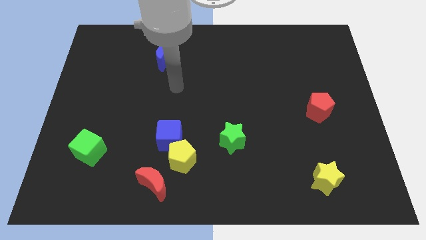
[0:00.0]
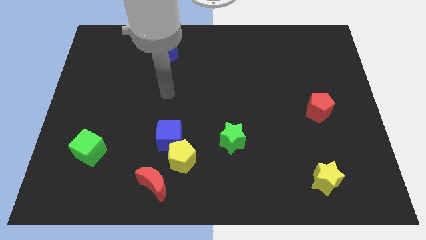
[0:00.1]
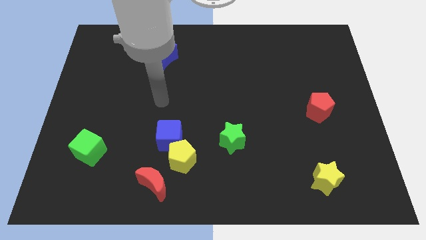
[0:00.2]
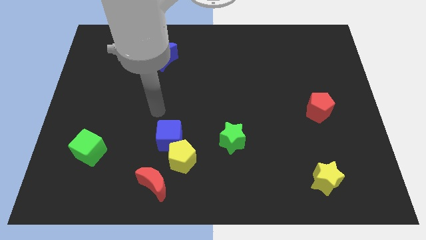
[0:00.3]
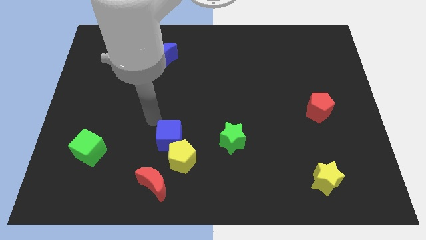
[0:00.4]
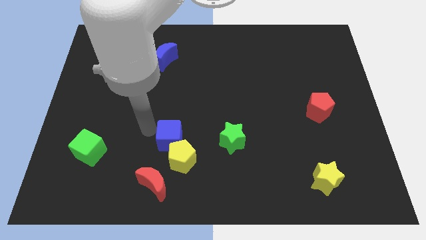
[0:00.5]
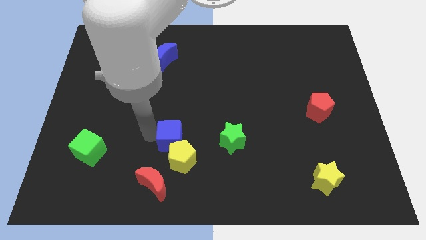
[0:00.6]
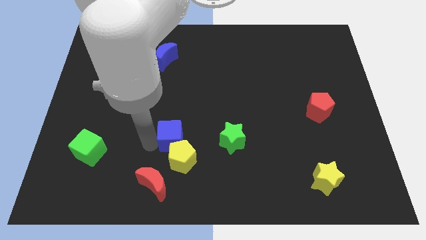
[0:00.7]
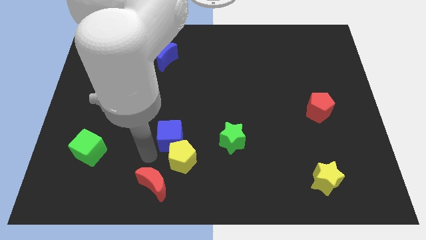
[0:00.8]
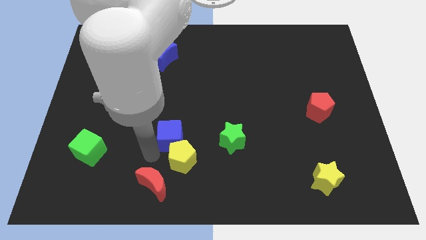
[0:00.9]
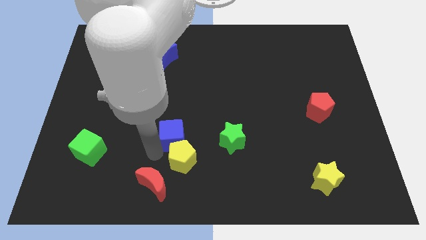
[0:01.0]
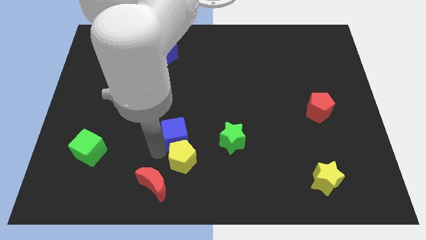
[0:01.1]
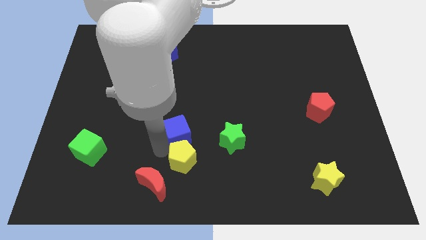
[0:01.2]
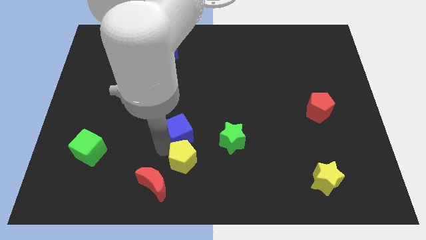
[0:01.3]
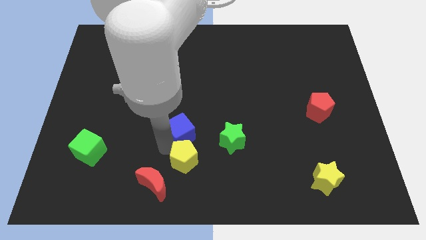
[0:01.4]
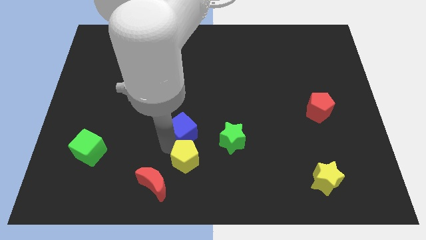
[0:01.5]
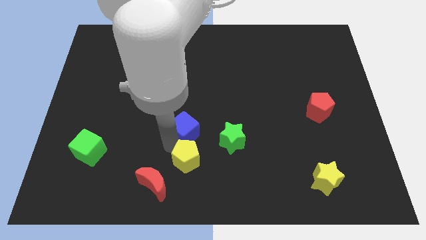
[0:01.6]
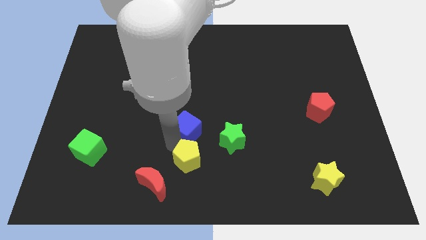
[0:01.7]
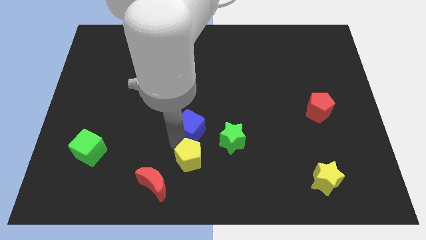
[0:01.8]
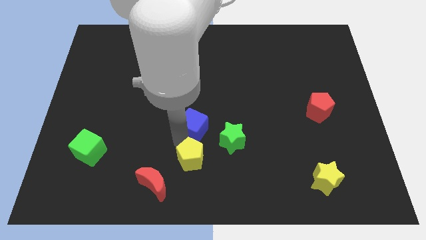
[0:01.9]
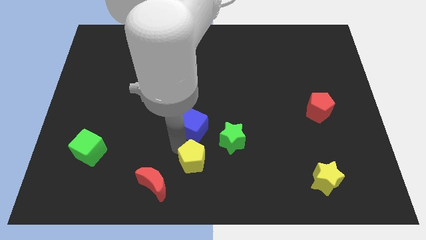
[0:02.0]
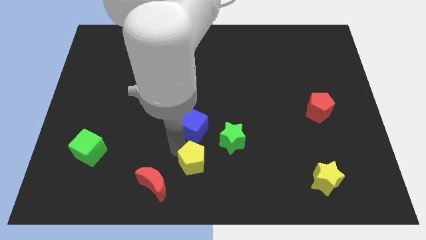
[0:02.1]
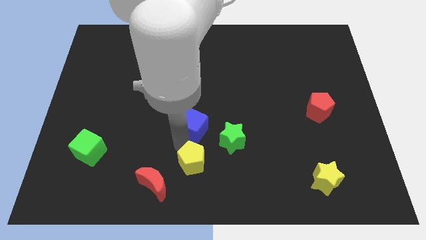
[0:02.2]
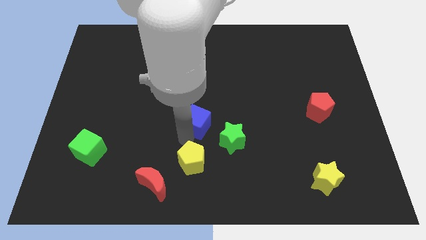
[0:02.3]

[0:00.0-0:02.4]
push the blue cube upwards and then to the right slightly

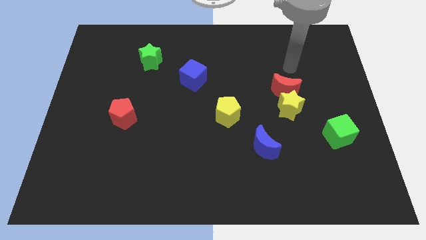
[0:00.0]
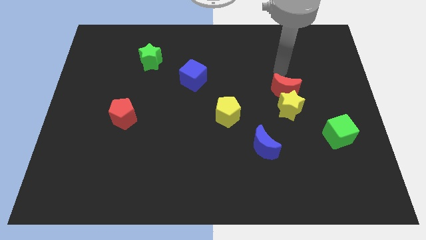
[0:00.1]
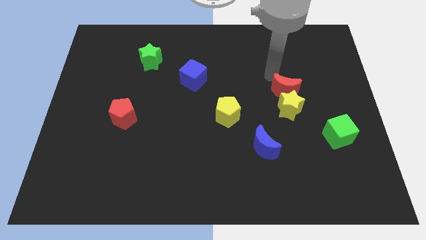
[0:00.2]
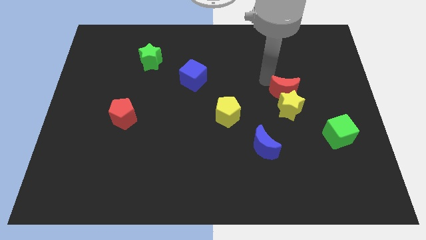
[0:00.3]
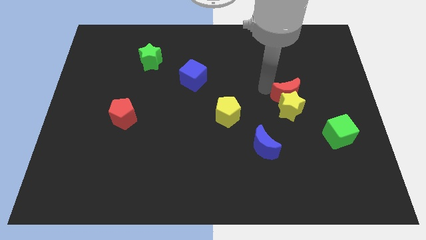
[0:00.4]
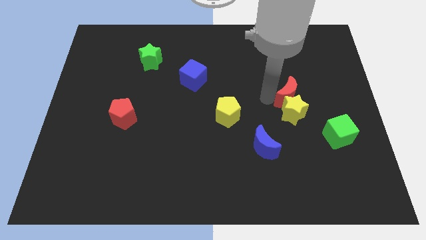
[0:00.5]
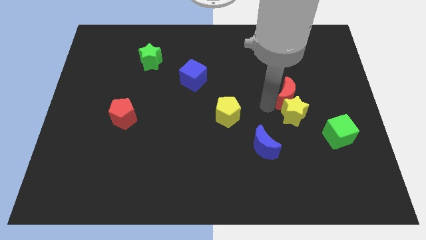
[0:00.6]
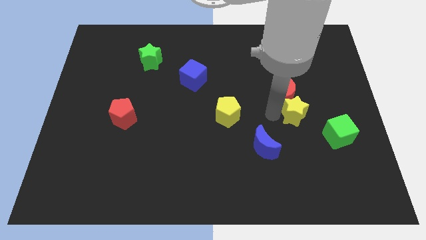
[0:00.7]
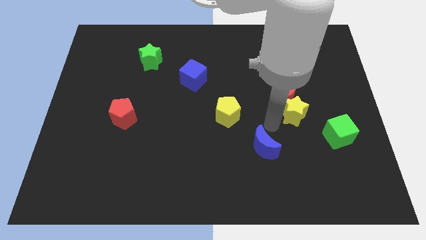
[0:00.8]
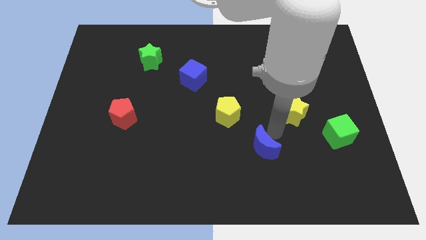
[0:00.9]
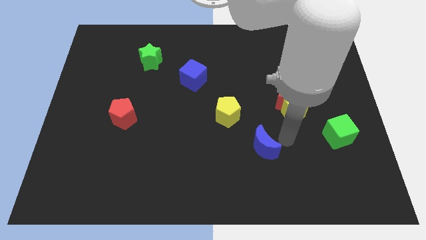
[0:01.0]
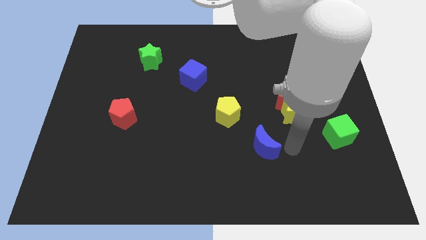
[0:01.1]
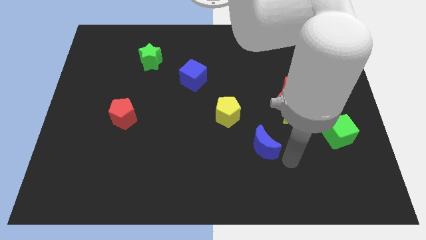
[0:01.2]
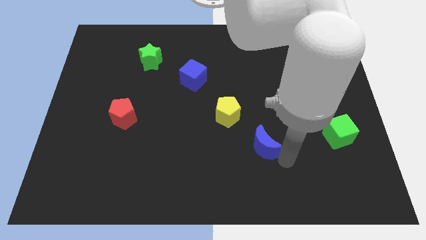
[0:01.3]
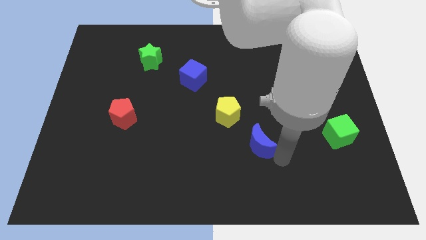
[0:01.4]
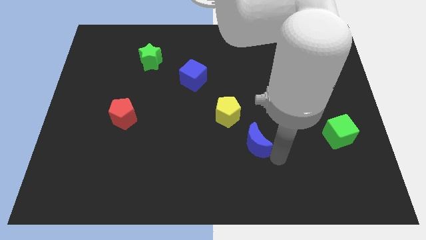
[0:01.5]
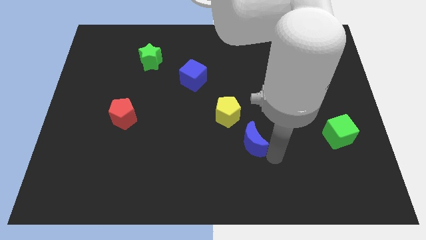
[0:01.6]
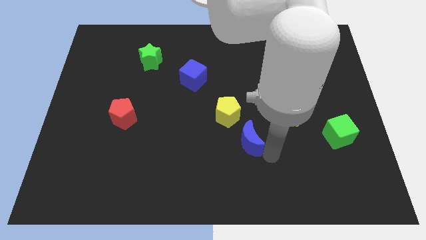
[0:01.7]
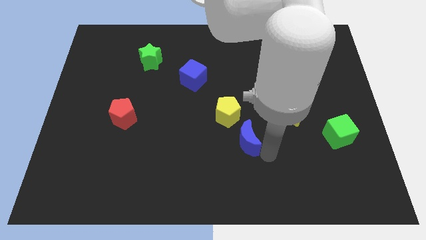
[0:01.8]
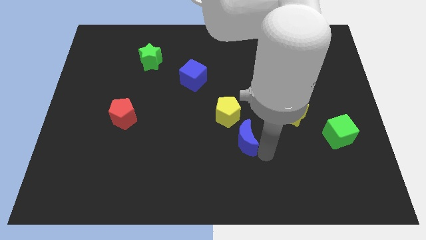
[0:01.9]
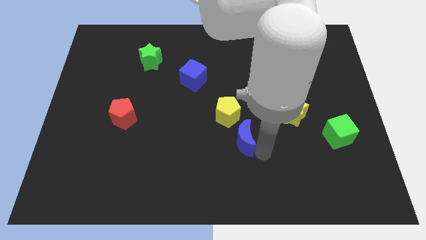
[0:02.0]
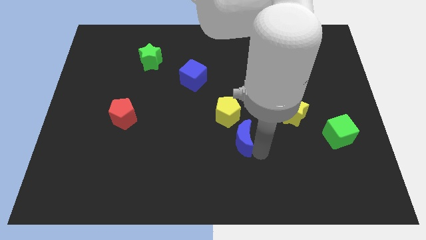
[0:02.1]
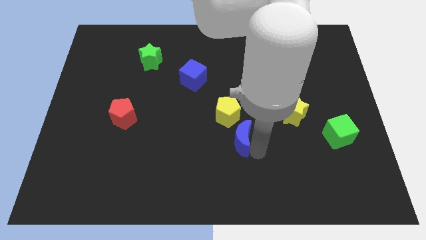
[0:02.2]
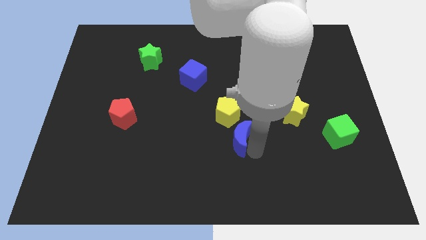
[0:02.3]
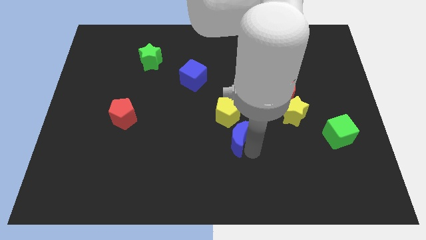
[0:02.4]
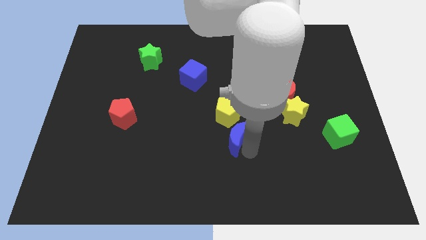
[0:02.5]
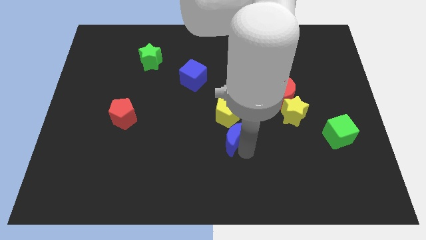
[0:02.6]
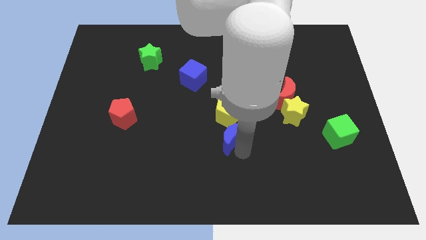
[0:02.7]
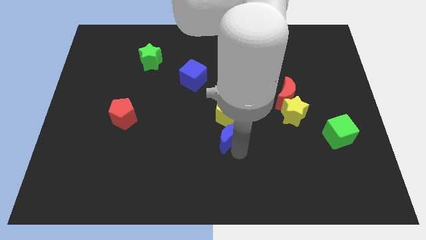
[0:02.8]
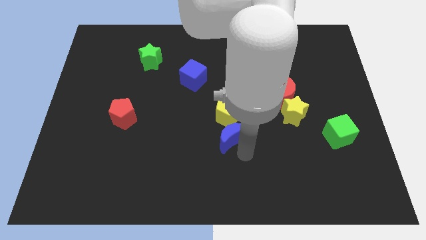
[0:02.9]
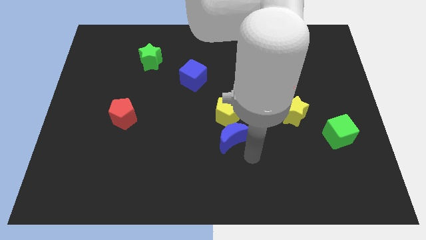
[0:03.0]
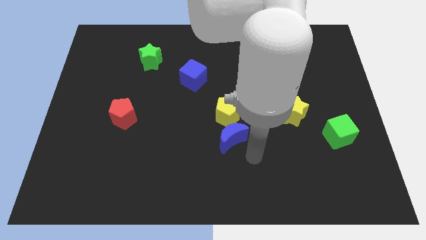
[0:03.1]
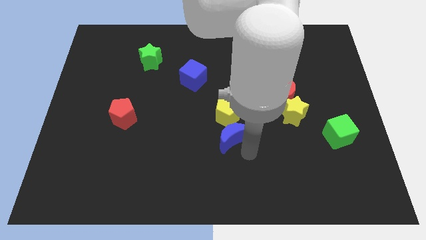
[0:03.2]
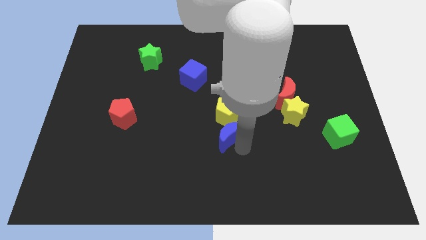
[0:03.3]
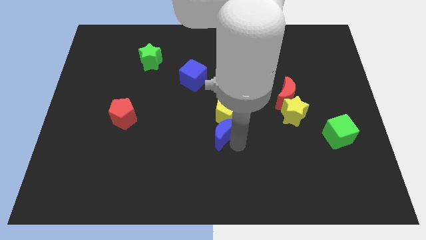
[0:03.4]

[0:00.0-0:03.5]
slightly push the blue moon up and left diagonally

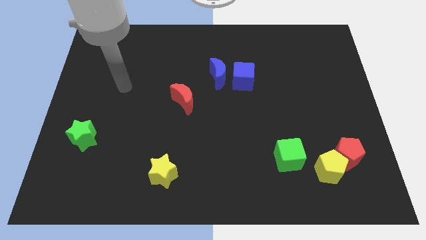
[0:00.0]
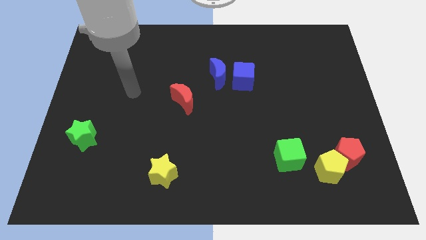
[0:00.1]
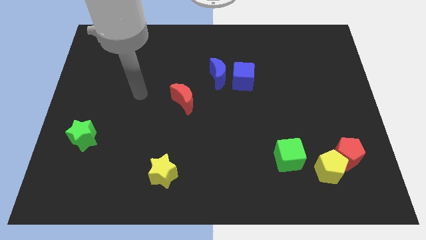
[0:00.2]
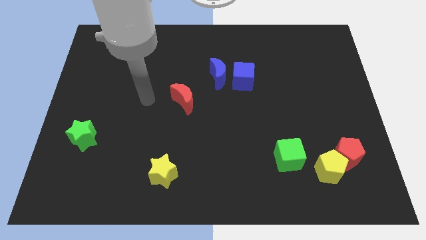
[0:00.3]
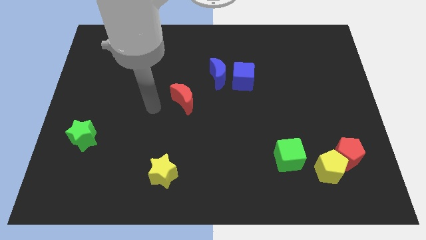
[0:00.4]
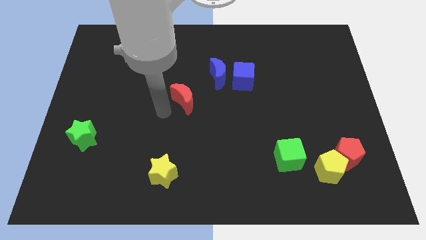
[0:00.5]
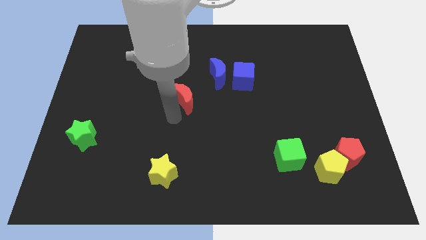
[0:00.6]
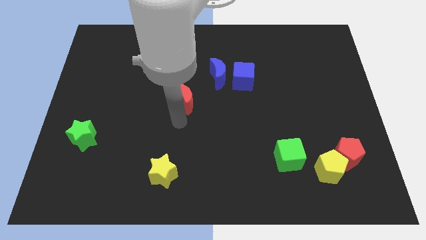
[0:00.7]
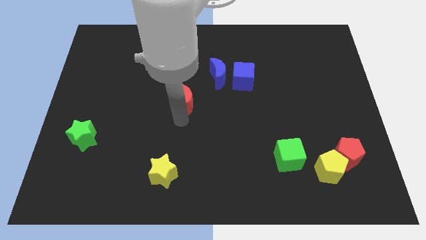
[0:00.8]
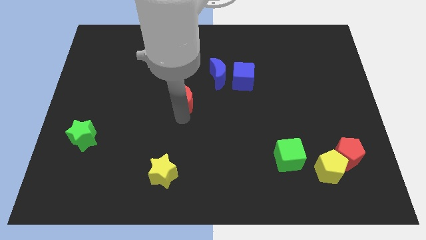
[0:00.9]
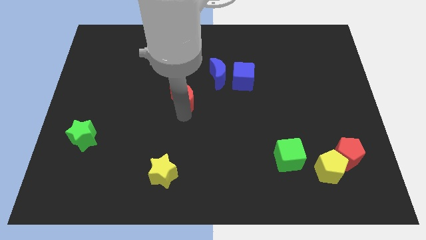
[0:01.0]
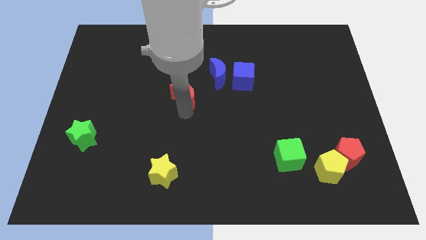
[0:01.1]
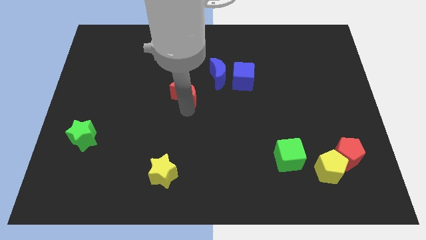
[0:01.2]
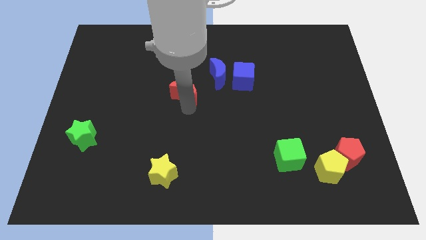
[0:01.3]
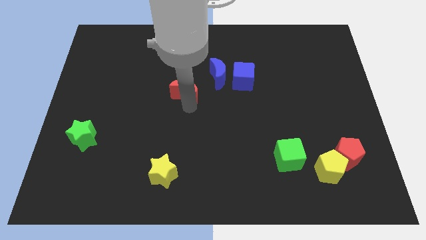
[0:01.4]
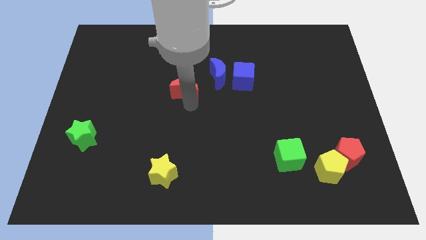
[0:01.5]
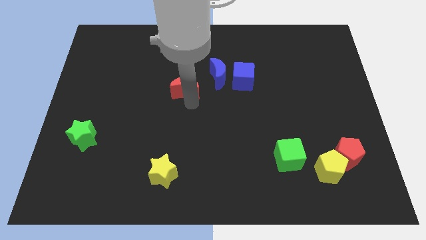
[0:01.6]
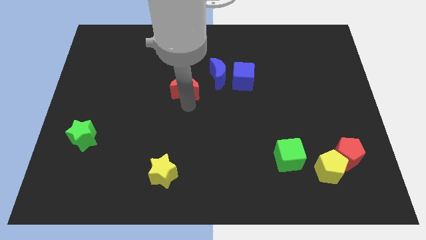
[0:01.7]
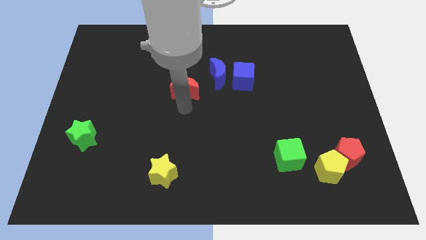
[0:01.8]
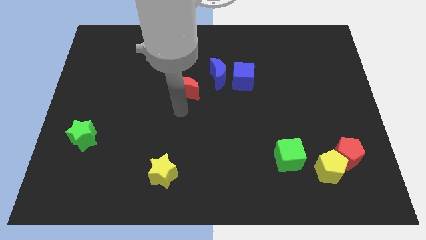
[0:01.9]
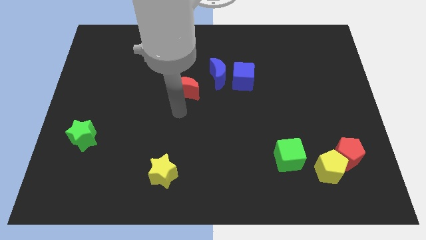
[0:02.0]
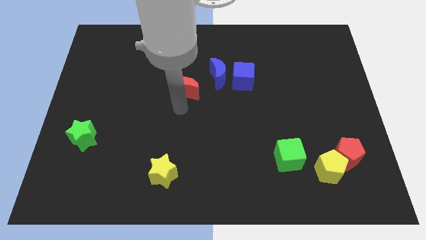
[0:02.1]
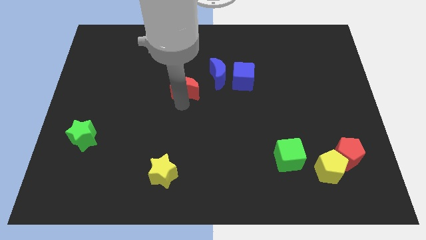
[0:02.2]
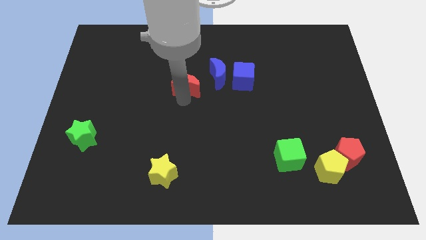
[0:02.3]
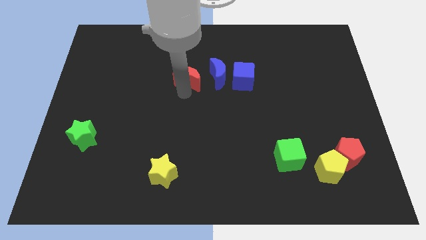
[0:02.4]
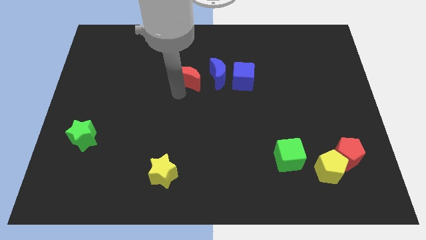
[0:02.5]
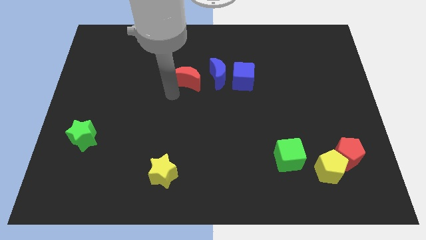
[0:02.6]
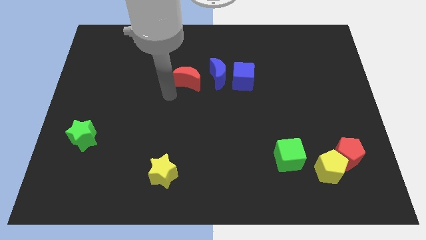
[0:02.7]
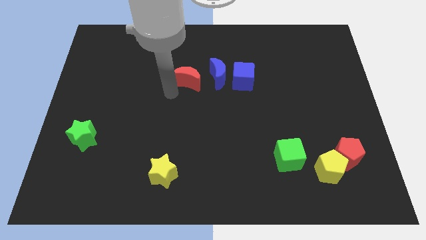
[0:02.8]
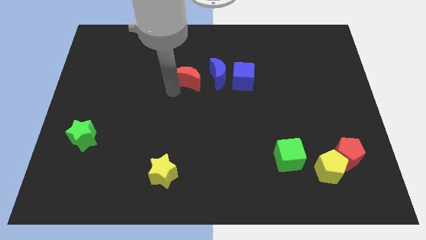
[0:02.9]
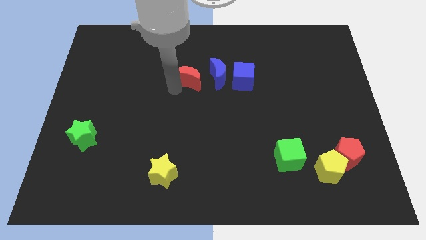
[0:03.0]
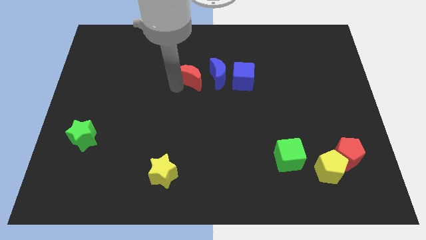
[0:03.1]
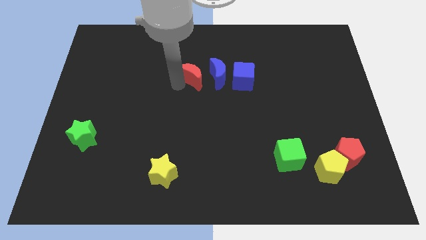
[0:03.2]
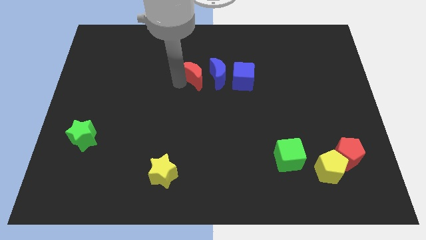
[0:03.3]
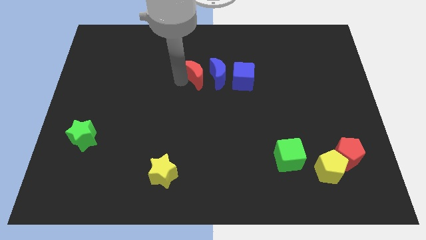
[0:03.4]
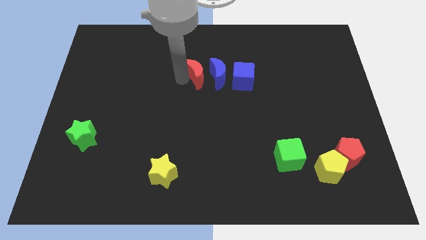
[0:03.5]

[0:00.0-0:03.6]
move the red moon somewhat up and then right
